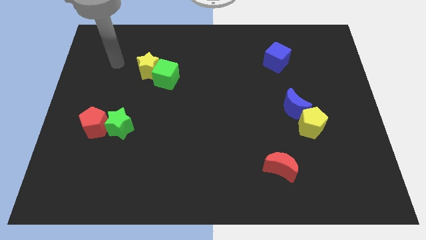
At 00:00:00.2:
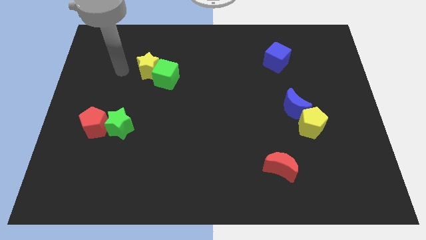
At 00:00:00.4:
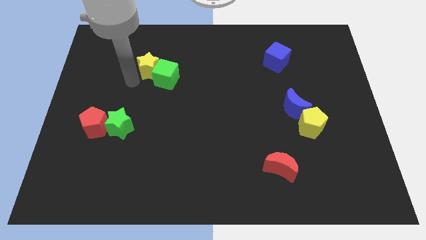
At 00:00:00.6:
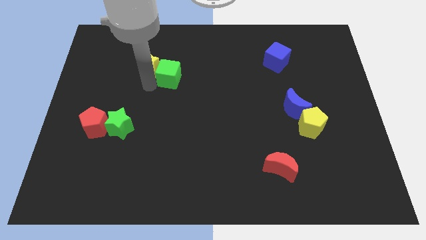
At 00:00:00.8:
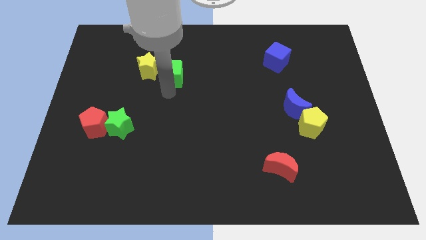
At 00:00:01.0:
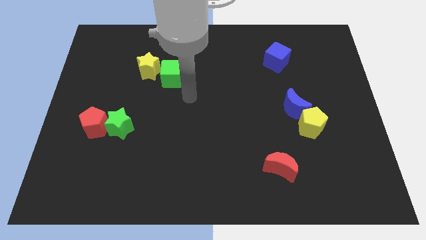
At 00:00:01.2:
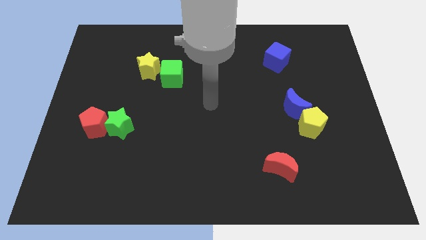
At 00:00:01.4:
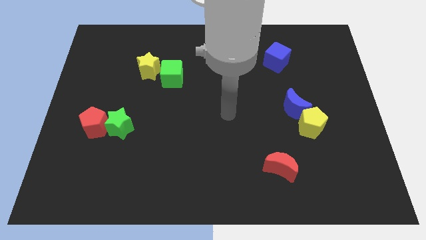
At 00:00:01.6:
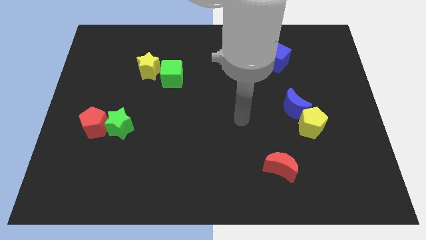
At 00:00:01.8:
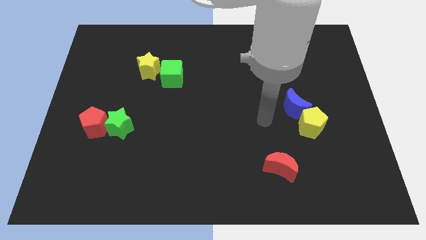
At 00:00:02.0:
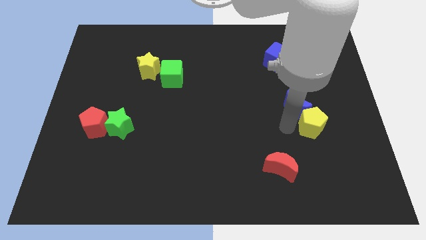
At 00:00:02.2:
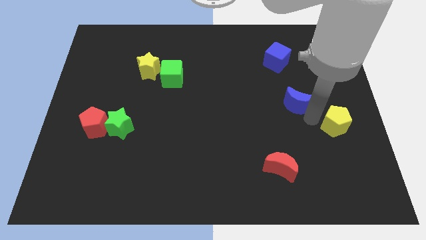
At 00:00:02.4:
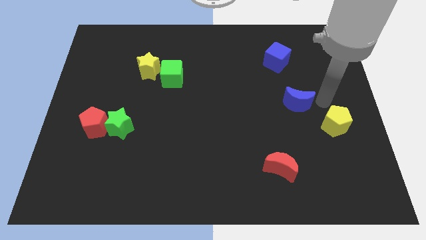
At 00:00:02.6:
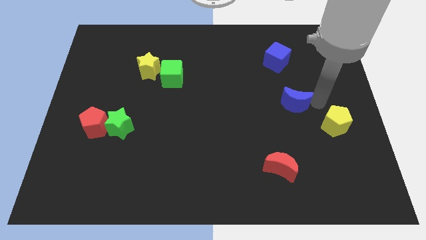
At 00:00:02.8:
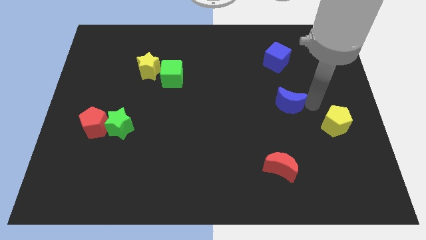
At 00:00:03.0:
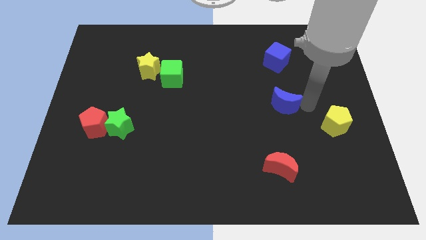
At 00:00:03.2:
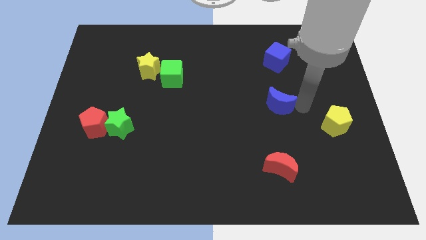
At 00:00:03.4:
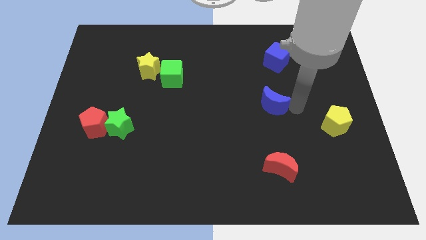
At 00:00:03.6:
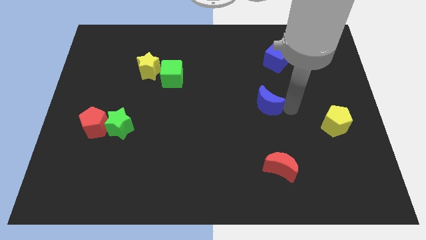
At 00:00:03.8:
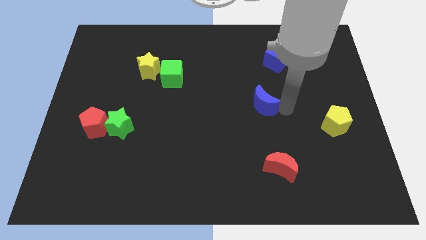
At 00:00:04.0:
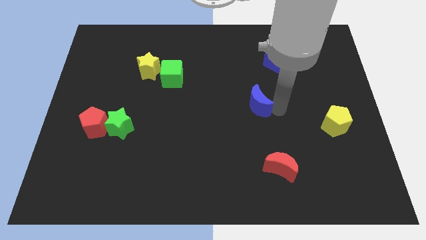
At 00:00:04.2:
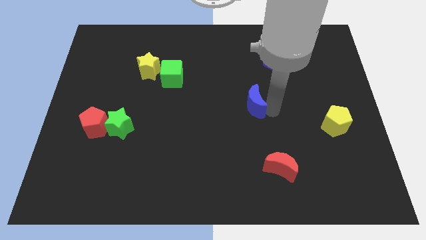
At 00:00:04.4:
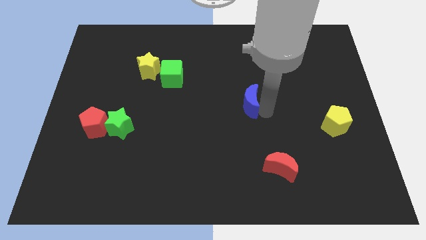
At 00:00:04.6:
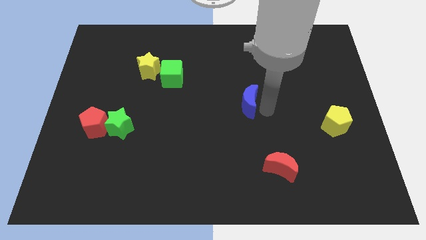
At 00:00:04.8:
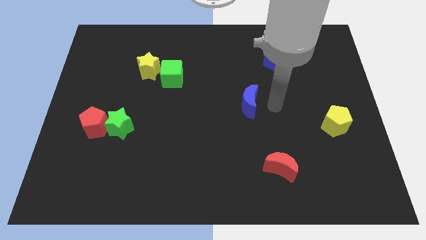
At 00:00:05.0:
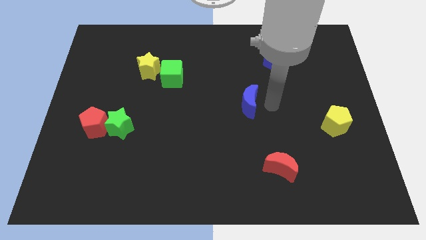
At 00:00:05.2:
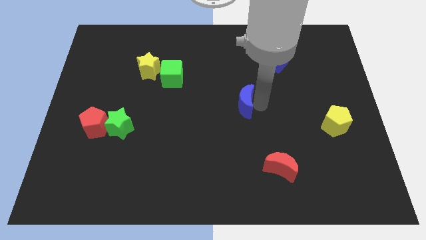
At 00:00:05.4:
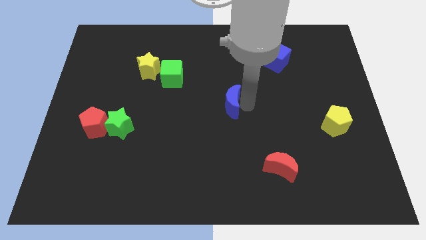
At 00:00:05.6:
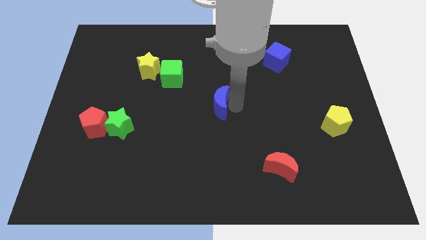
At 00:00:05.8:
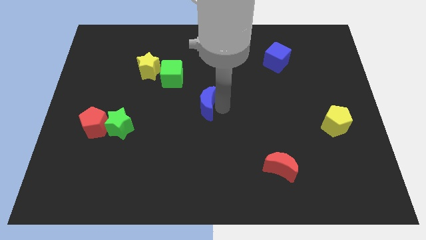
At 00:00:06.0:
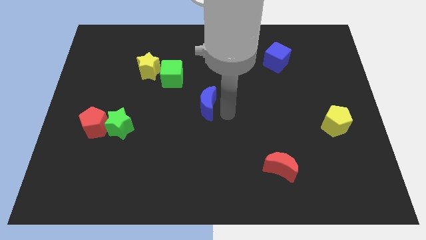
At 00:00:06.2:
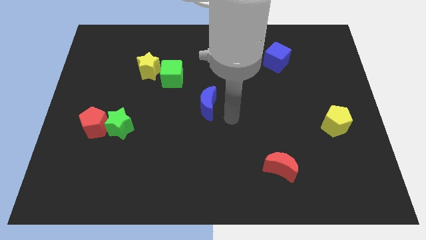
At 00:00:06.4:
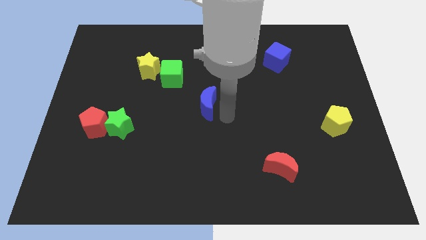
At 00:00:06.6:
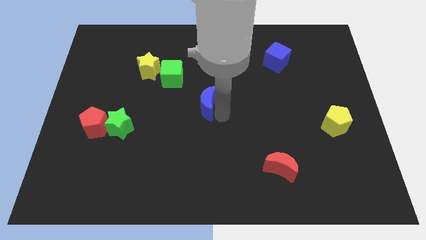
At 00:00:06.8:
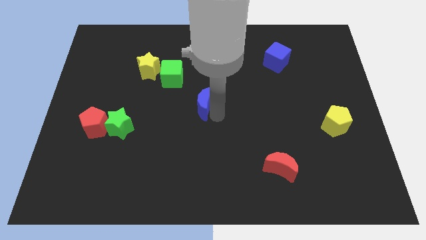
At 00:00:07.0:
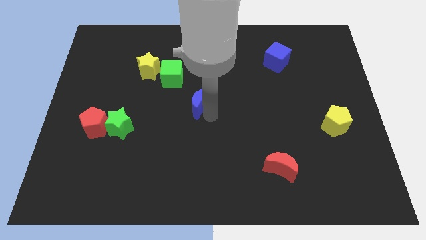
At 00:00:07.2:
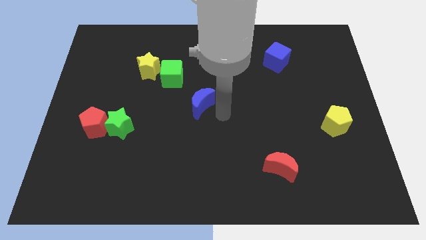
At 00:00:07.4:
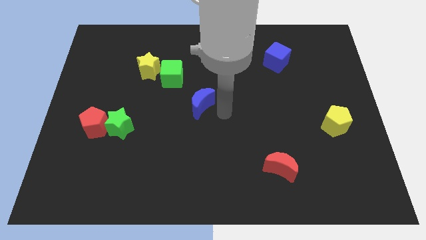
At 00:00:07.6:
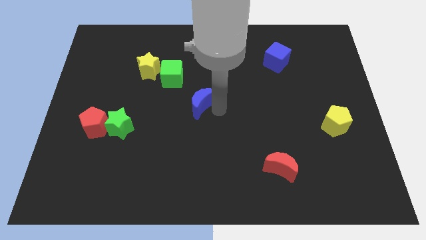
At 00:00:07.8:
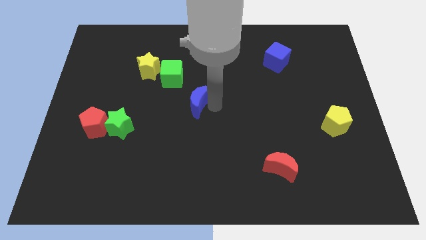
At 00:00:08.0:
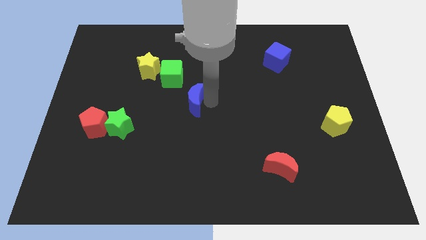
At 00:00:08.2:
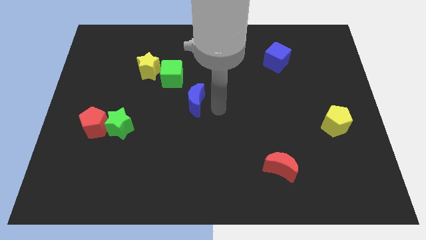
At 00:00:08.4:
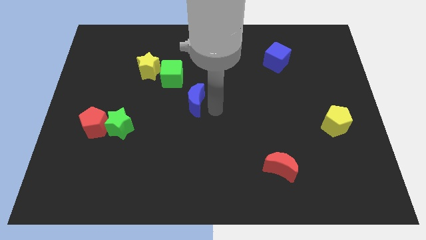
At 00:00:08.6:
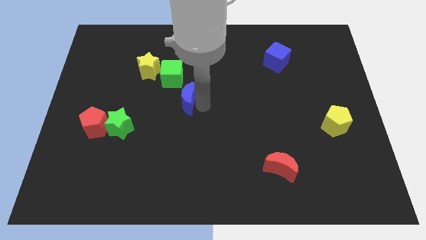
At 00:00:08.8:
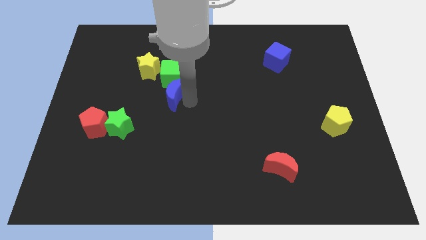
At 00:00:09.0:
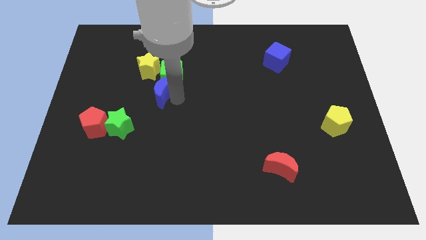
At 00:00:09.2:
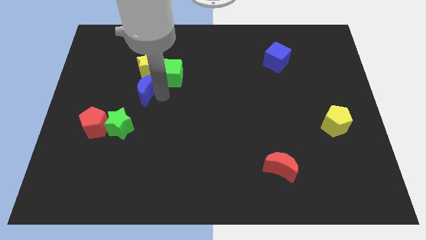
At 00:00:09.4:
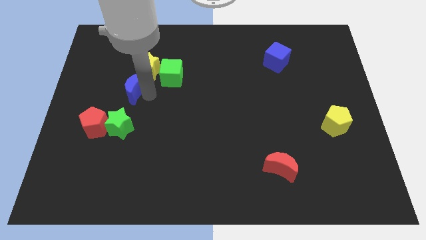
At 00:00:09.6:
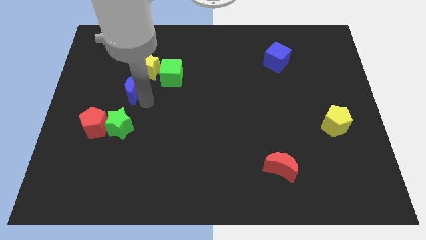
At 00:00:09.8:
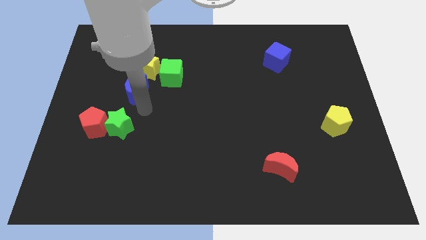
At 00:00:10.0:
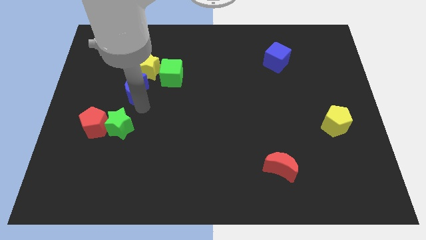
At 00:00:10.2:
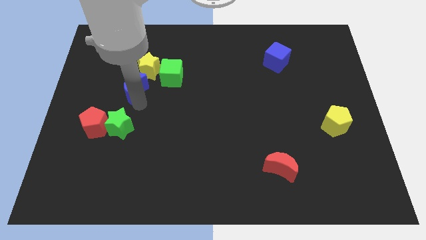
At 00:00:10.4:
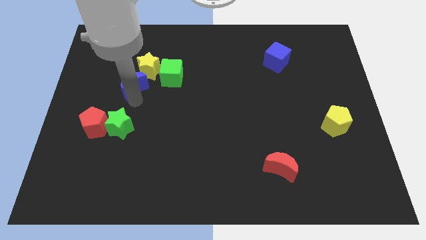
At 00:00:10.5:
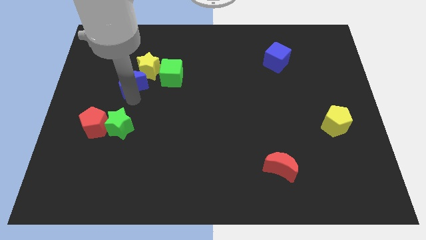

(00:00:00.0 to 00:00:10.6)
put the blue moon close to the yellow star

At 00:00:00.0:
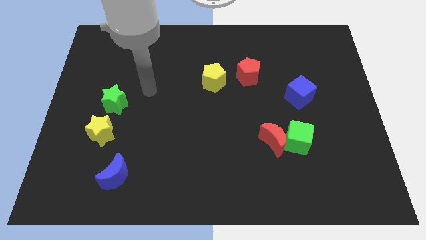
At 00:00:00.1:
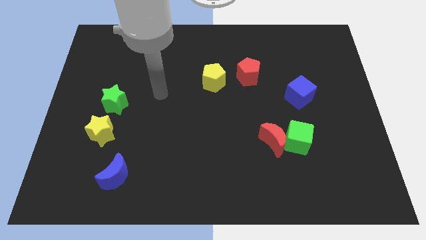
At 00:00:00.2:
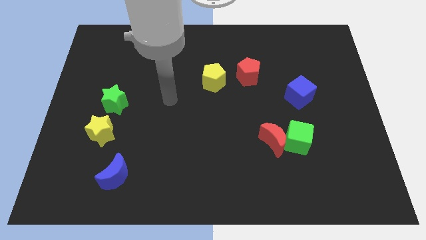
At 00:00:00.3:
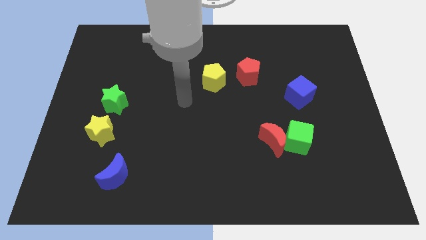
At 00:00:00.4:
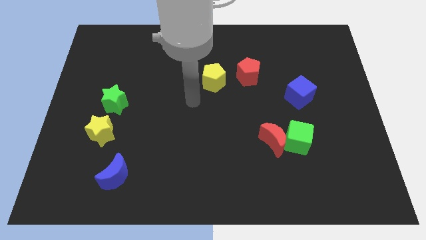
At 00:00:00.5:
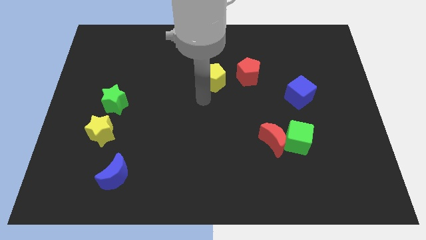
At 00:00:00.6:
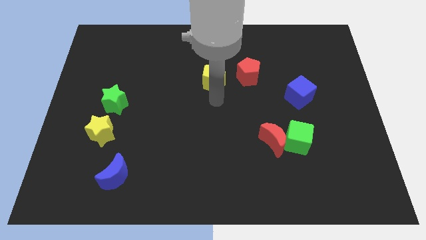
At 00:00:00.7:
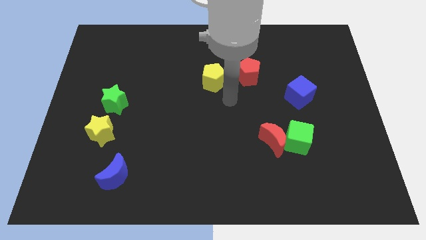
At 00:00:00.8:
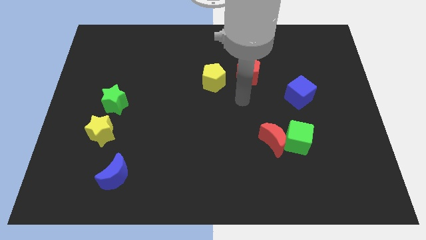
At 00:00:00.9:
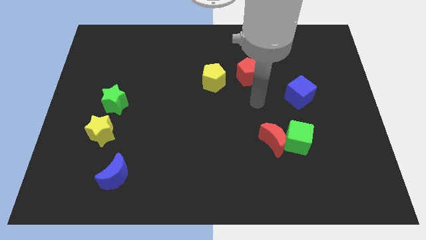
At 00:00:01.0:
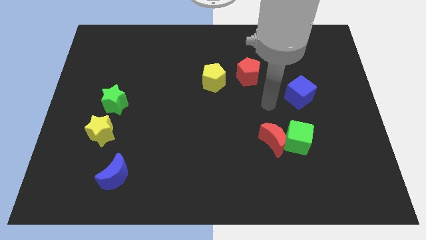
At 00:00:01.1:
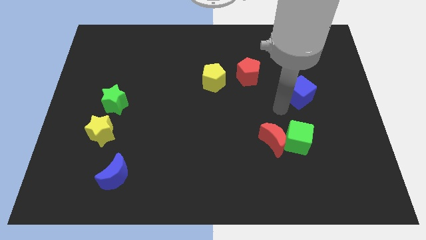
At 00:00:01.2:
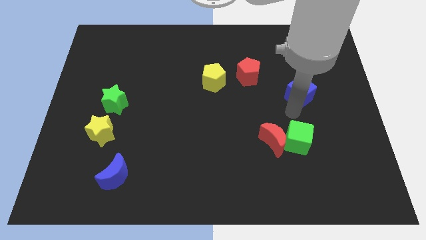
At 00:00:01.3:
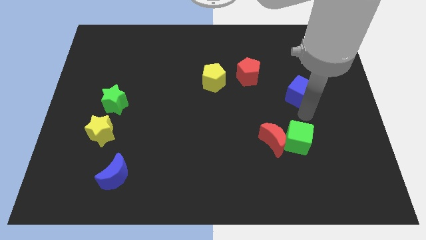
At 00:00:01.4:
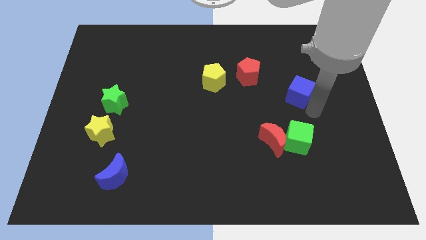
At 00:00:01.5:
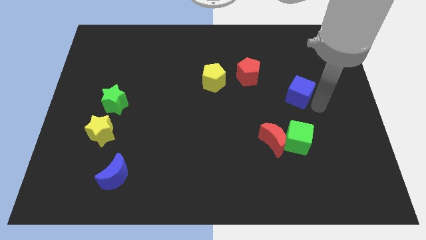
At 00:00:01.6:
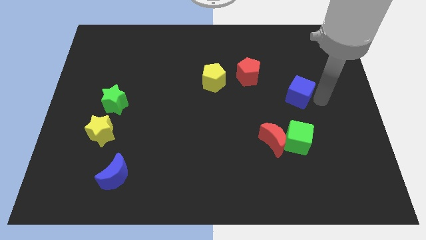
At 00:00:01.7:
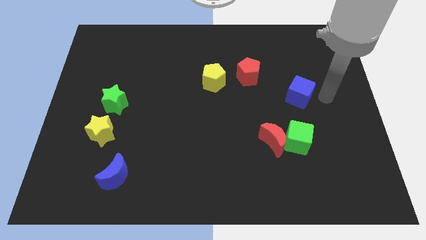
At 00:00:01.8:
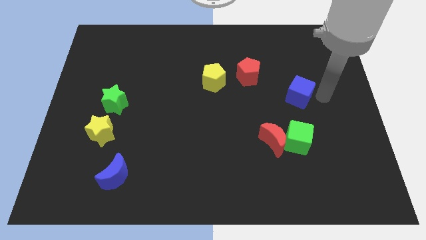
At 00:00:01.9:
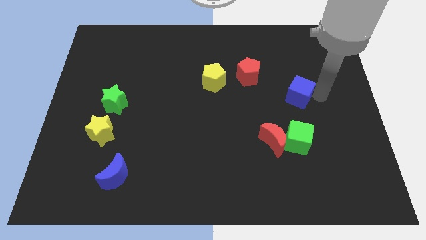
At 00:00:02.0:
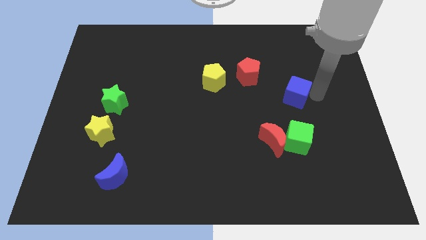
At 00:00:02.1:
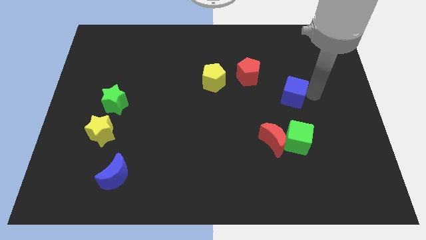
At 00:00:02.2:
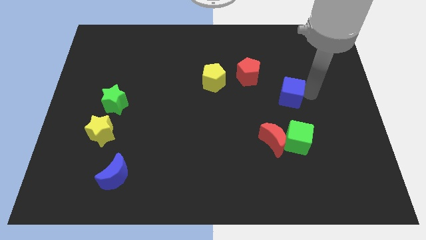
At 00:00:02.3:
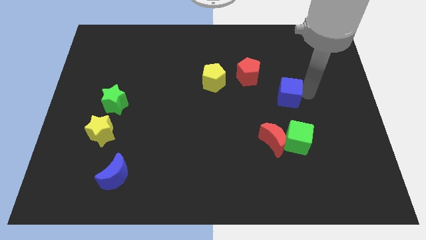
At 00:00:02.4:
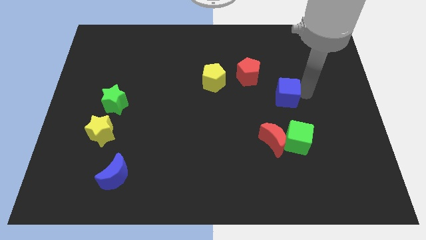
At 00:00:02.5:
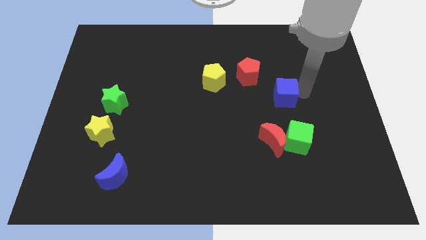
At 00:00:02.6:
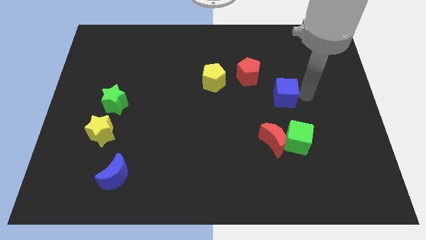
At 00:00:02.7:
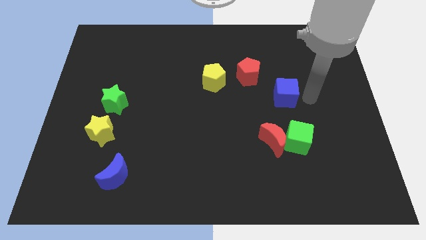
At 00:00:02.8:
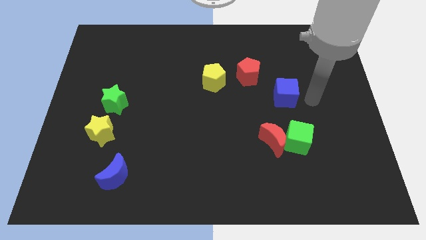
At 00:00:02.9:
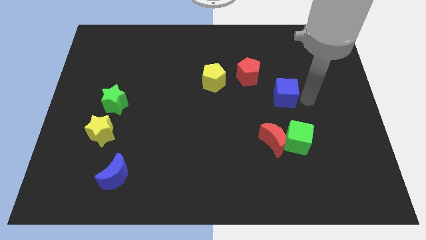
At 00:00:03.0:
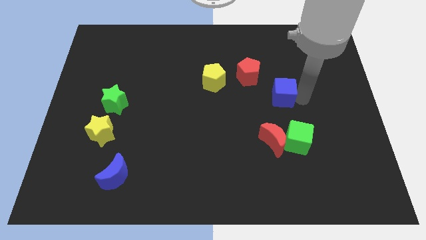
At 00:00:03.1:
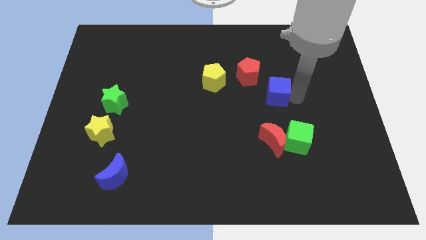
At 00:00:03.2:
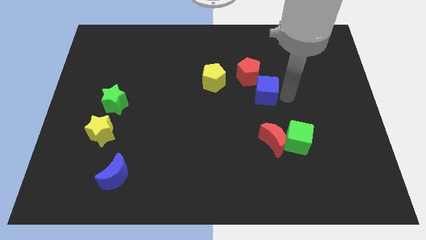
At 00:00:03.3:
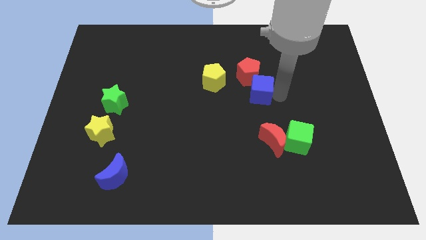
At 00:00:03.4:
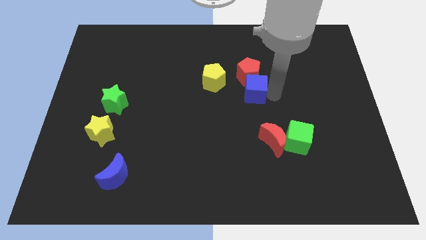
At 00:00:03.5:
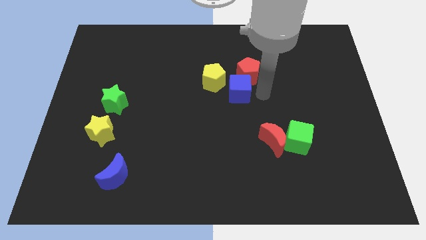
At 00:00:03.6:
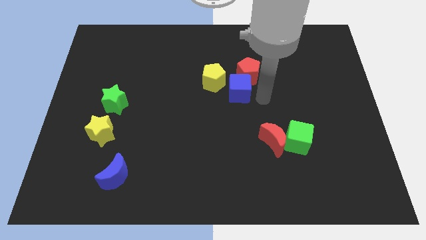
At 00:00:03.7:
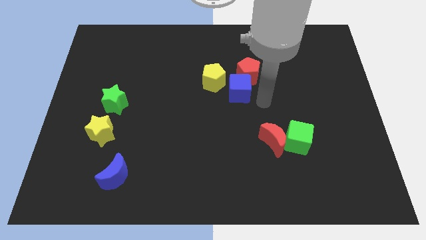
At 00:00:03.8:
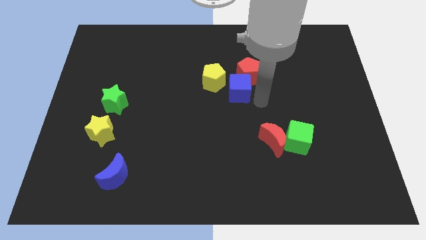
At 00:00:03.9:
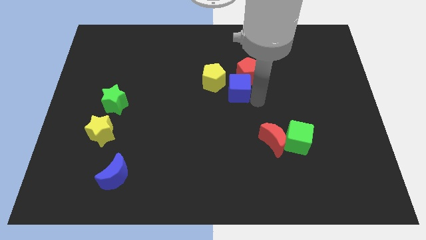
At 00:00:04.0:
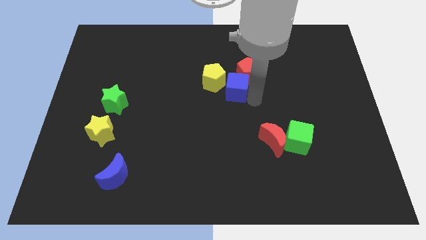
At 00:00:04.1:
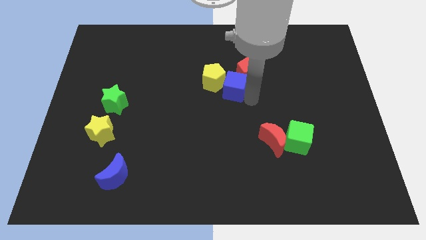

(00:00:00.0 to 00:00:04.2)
move the blue cube next to the yellow pentagon
